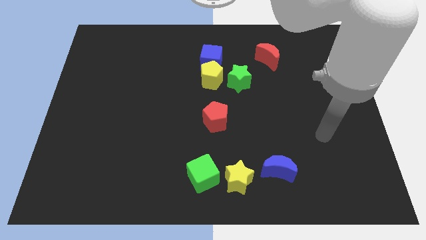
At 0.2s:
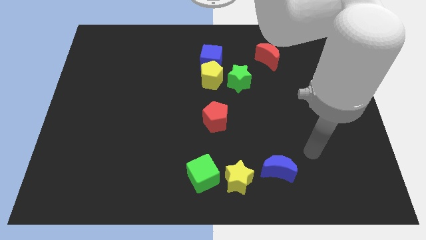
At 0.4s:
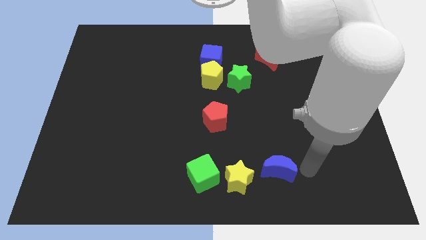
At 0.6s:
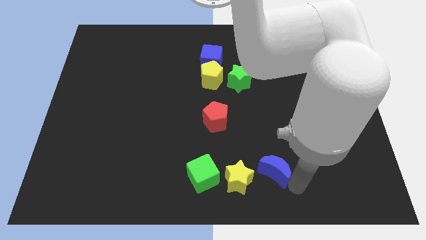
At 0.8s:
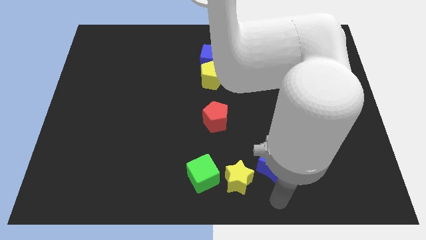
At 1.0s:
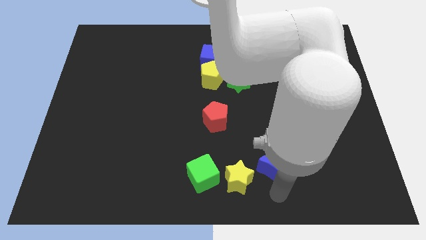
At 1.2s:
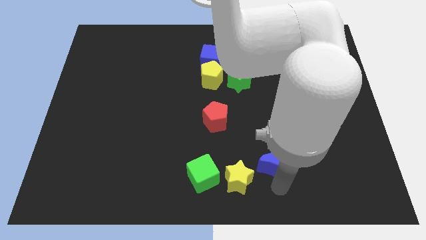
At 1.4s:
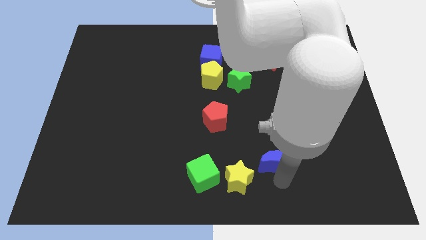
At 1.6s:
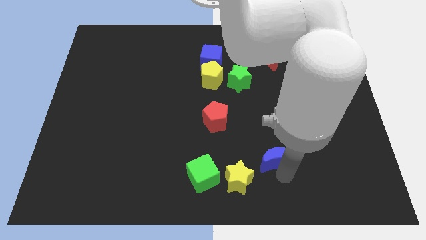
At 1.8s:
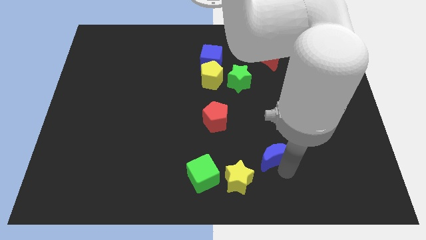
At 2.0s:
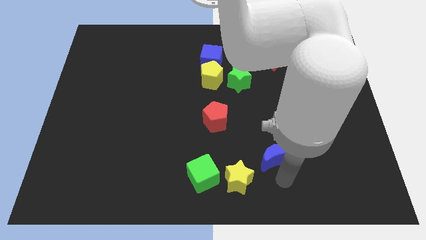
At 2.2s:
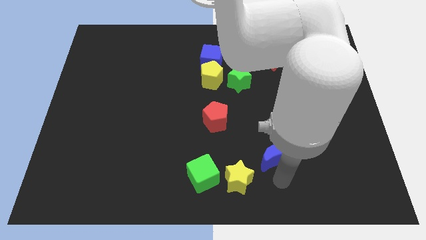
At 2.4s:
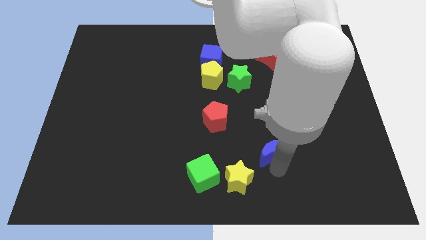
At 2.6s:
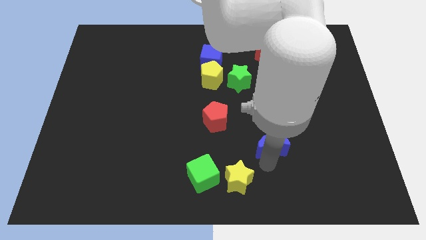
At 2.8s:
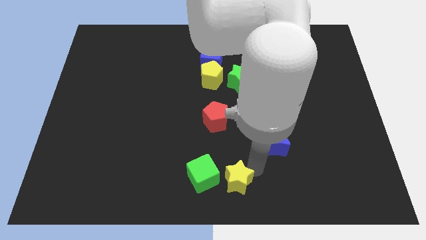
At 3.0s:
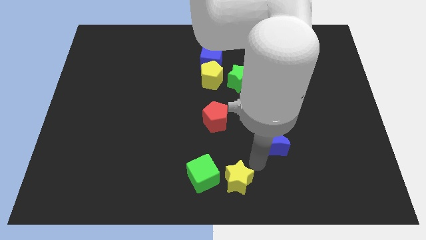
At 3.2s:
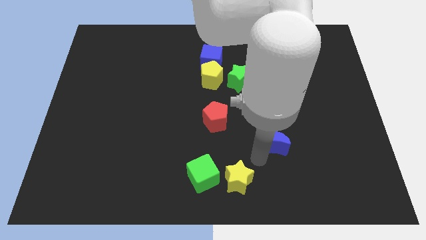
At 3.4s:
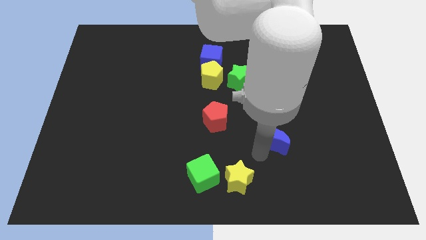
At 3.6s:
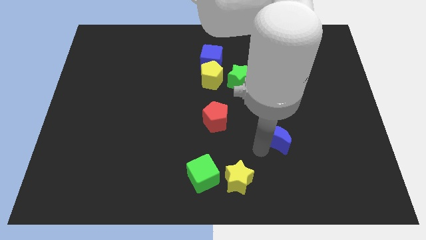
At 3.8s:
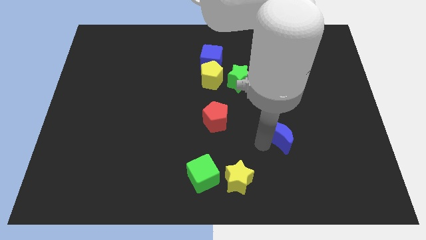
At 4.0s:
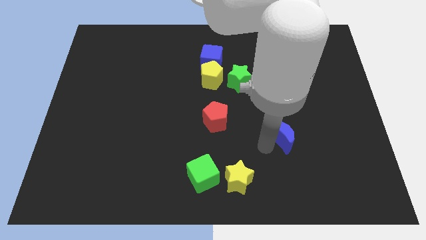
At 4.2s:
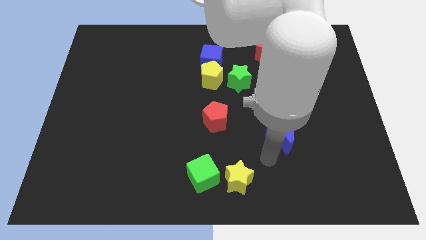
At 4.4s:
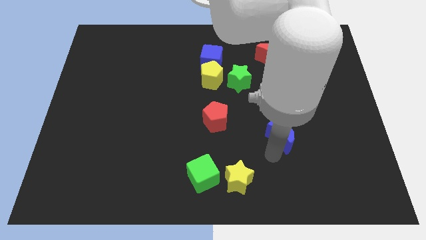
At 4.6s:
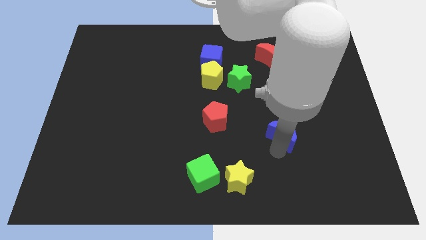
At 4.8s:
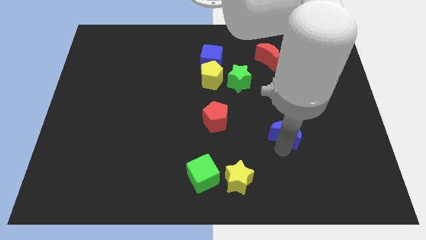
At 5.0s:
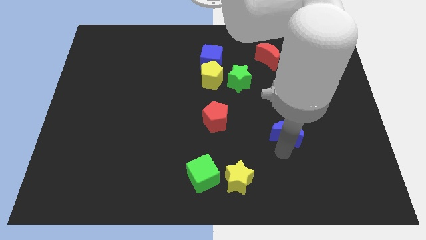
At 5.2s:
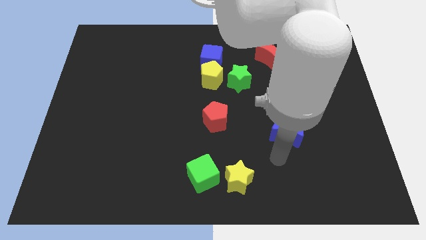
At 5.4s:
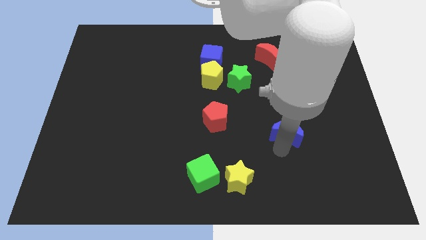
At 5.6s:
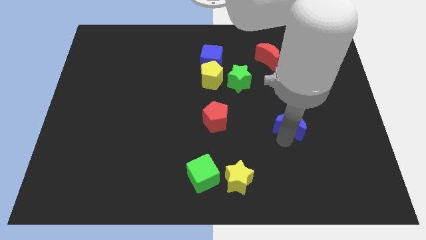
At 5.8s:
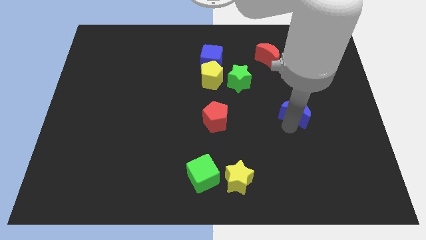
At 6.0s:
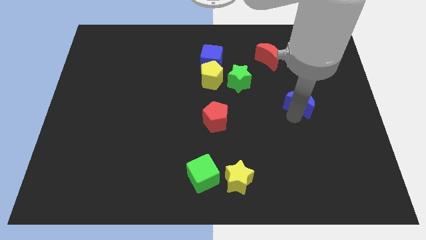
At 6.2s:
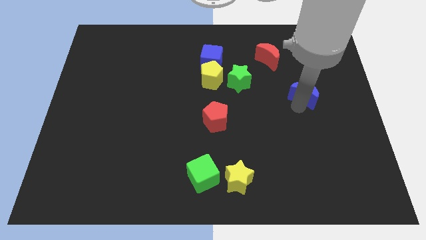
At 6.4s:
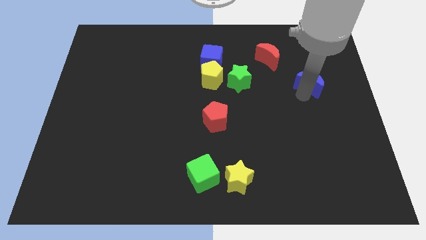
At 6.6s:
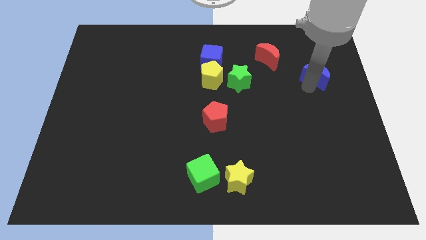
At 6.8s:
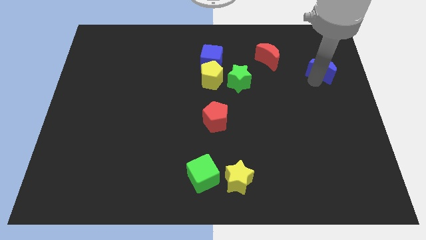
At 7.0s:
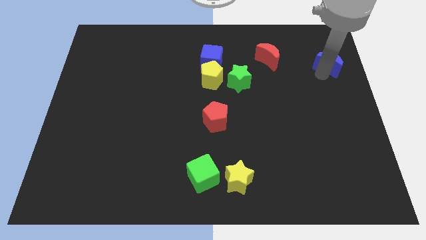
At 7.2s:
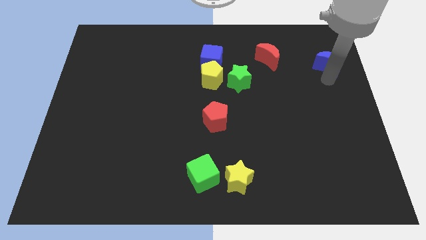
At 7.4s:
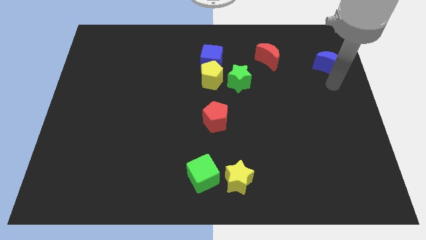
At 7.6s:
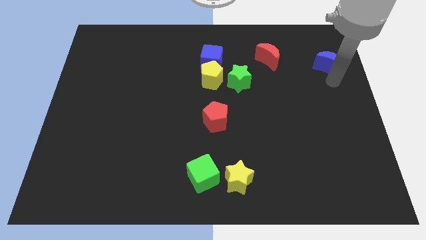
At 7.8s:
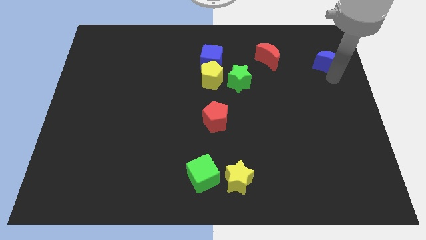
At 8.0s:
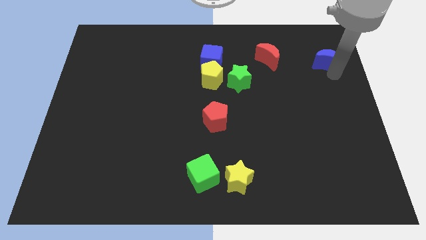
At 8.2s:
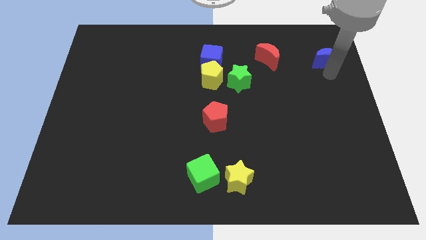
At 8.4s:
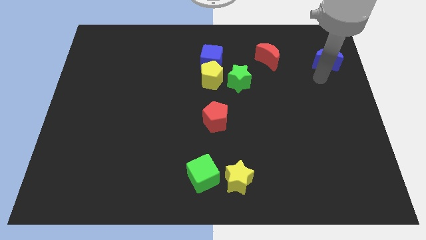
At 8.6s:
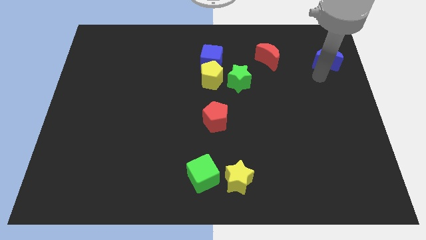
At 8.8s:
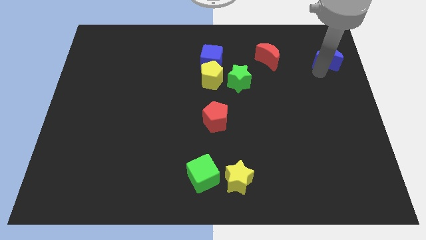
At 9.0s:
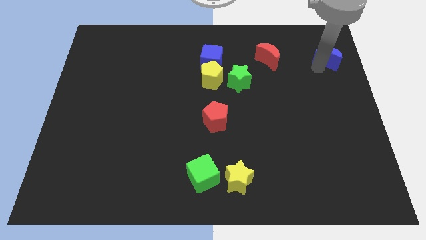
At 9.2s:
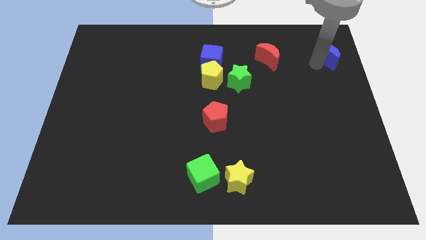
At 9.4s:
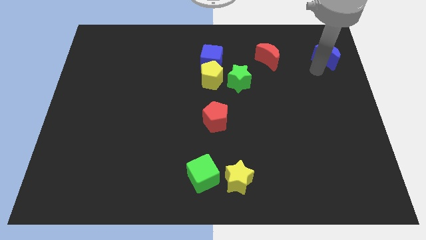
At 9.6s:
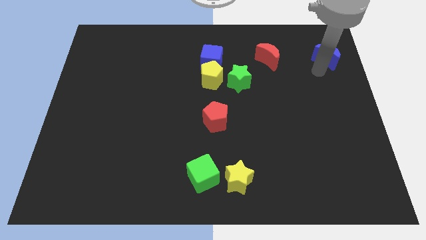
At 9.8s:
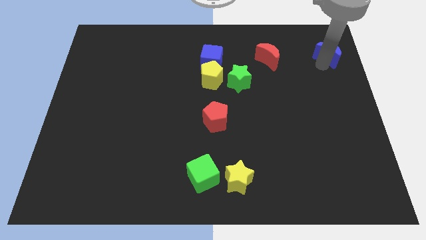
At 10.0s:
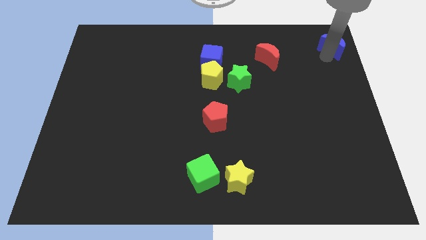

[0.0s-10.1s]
put the blue moon to the top right corner
